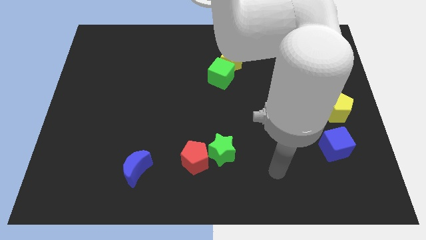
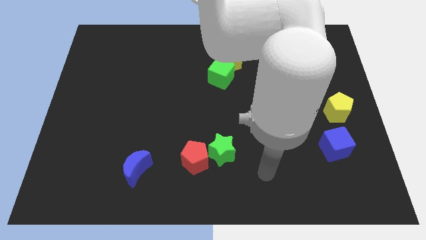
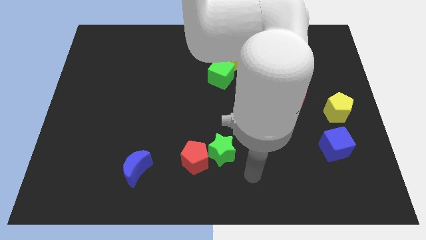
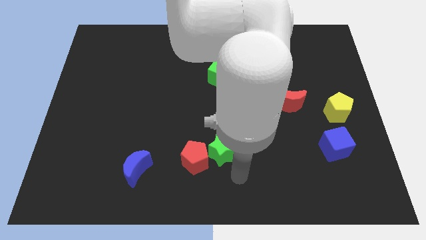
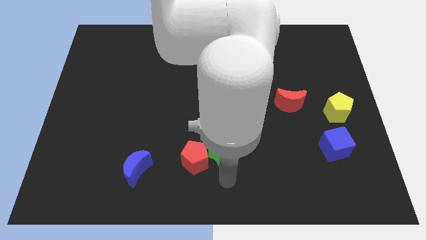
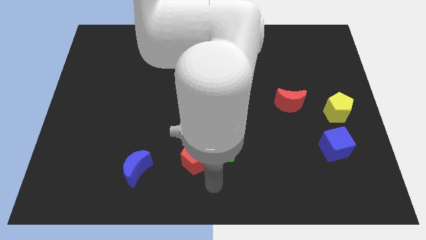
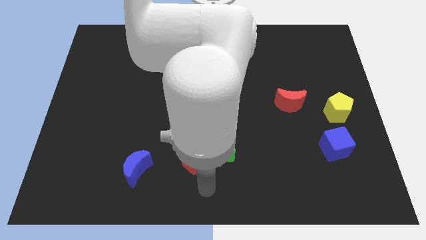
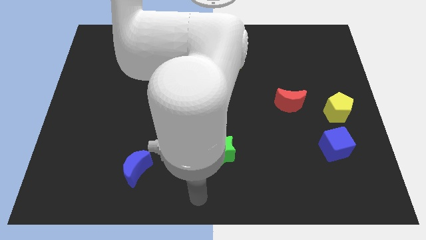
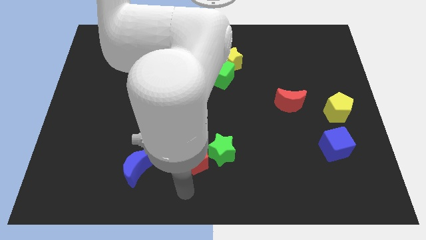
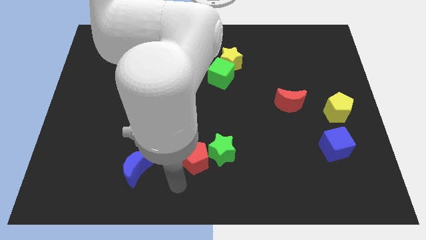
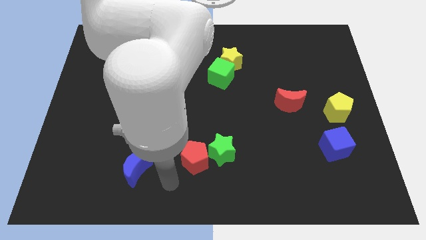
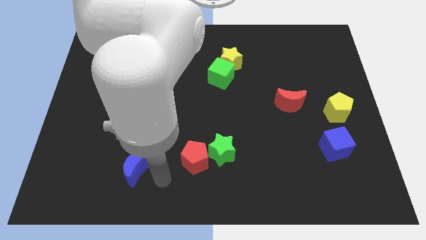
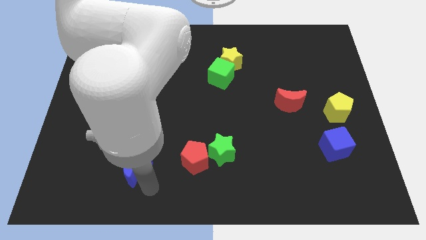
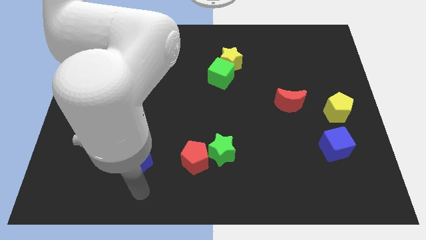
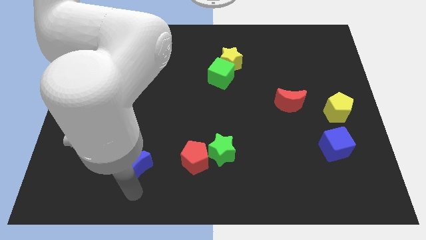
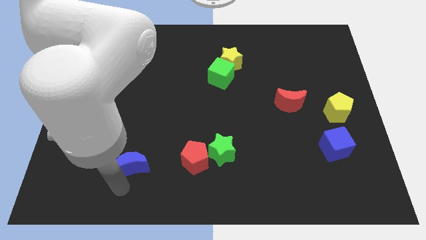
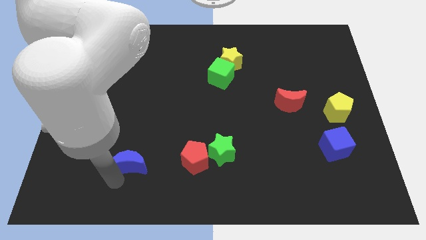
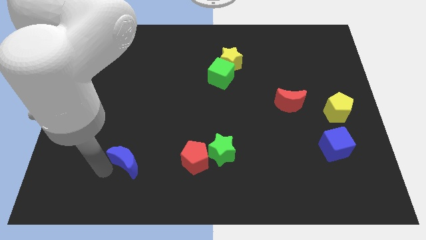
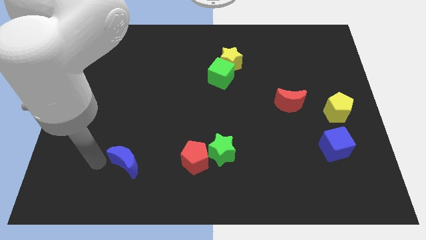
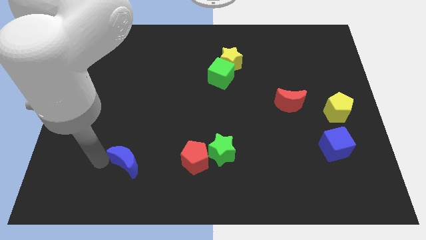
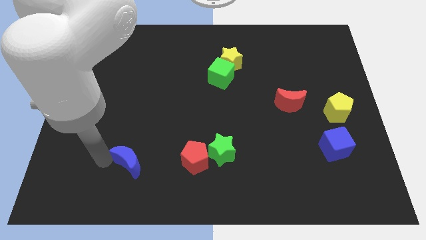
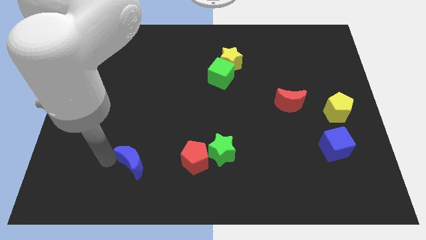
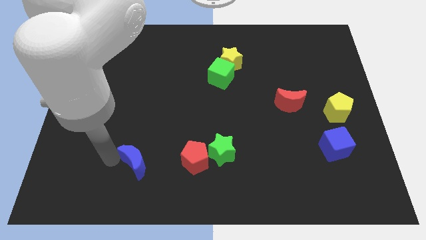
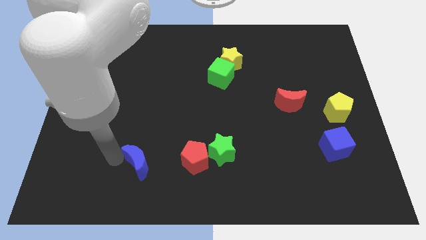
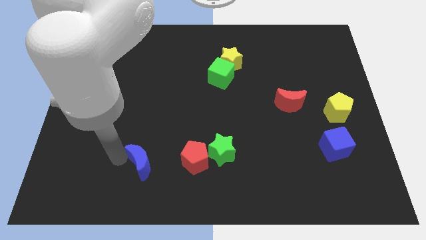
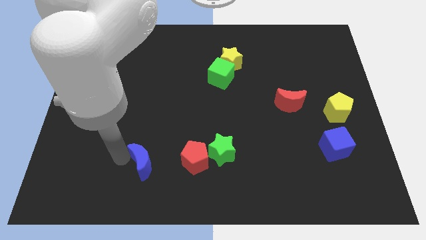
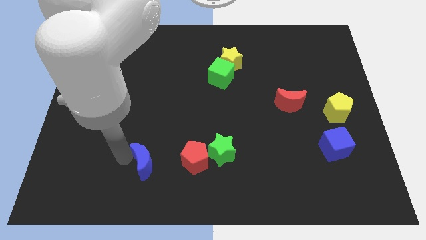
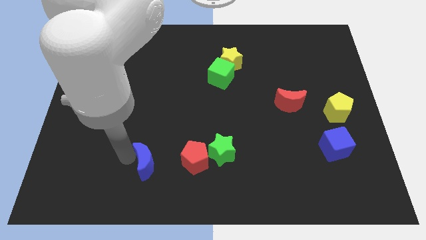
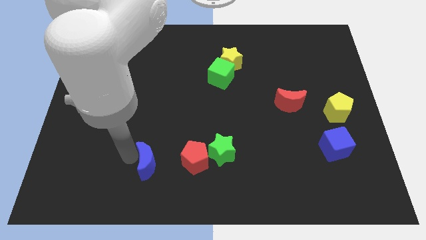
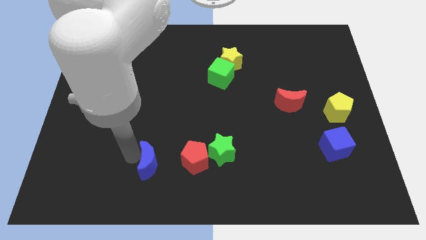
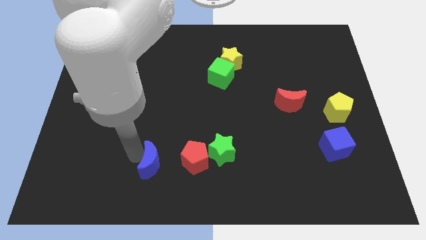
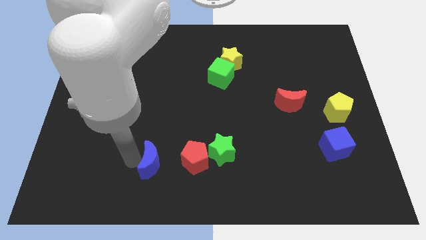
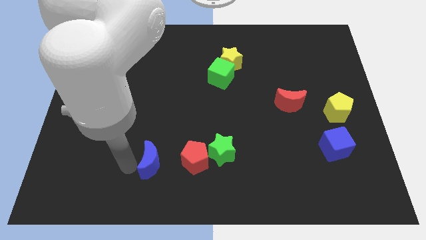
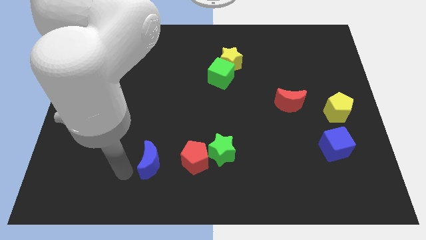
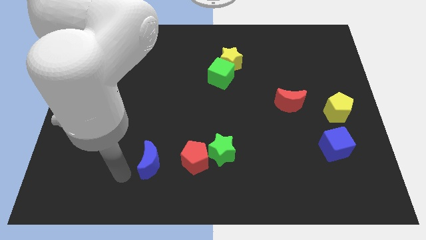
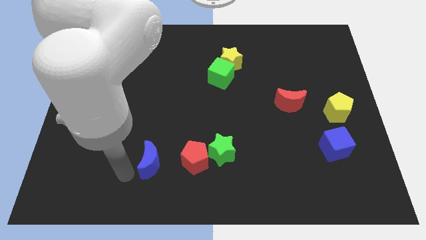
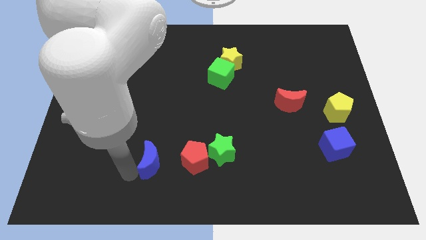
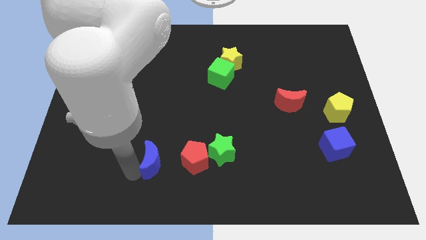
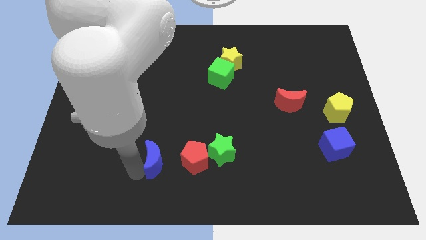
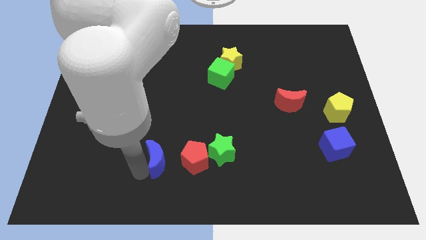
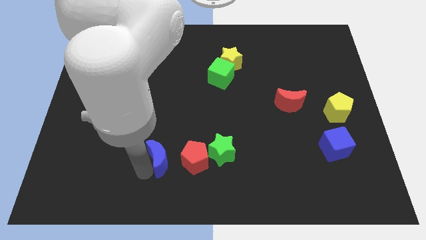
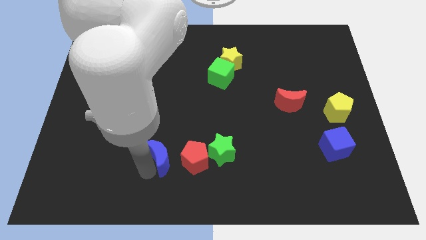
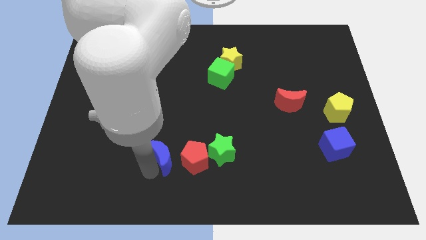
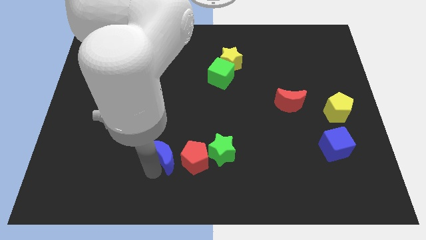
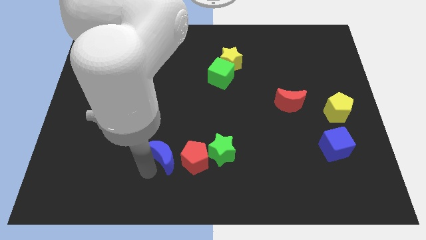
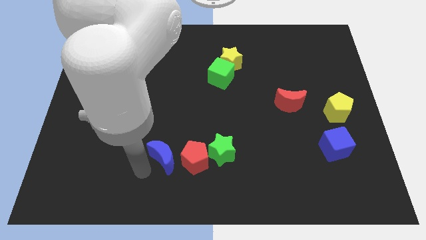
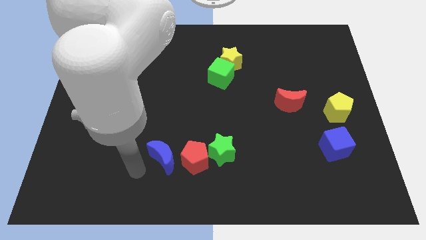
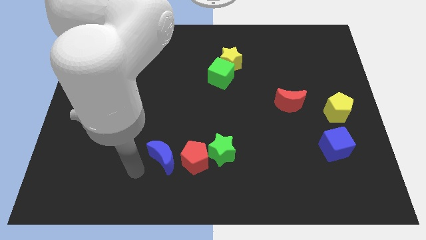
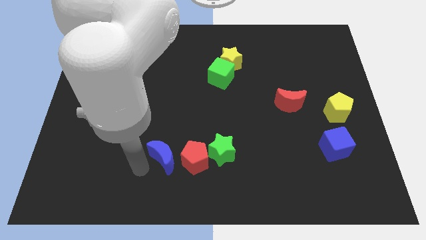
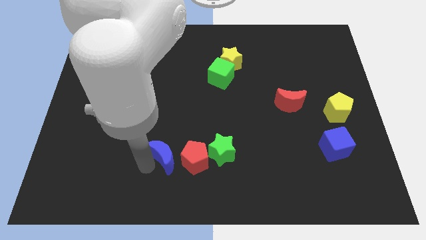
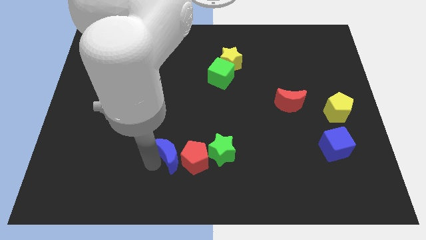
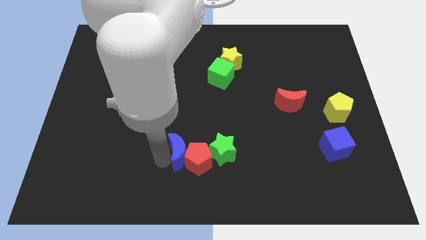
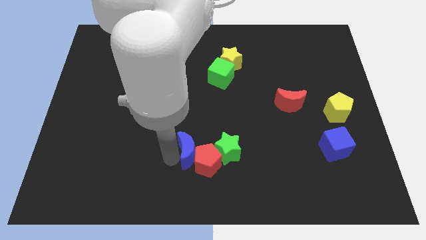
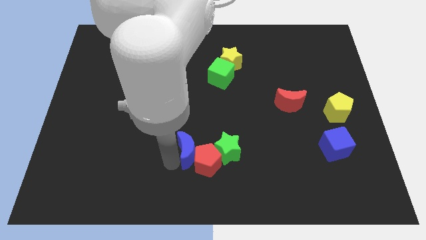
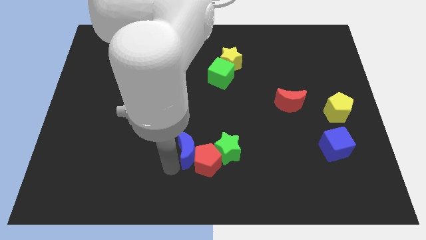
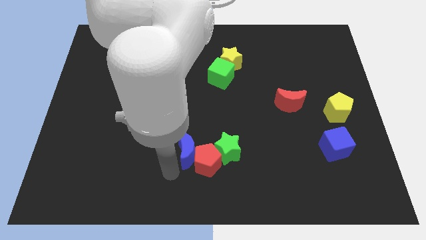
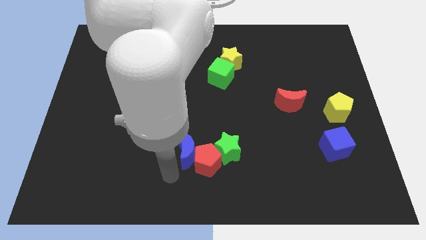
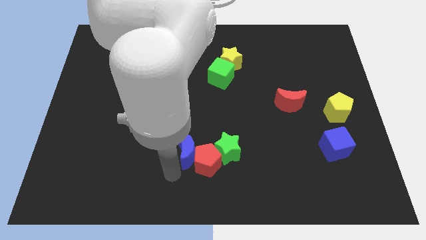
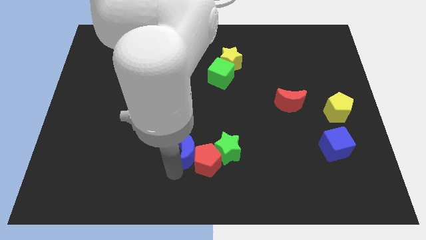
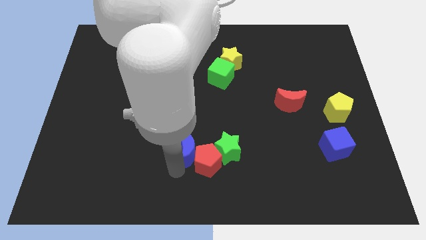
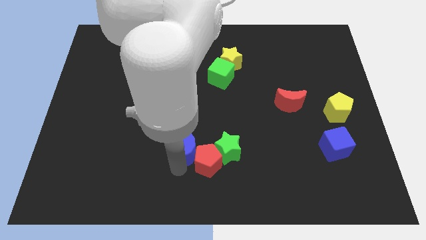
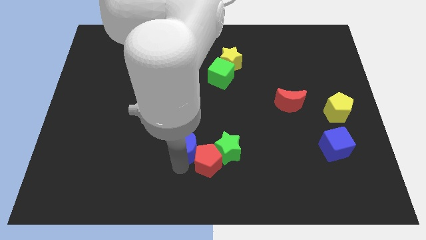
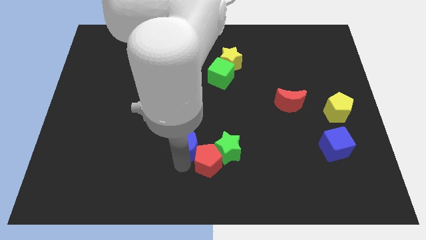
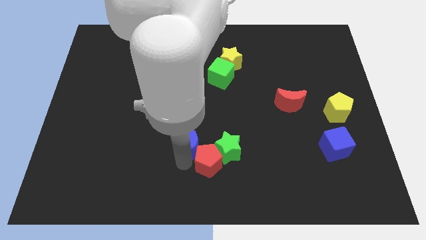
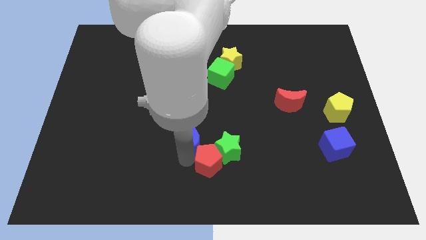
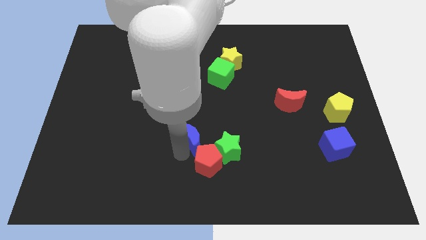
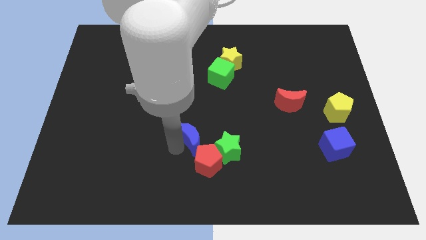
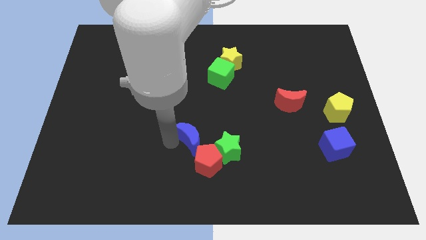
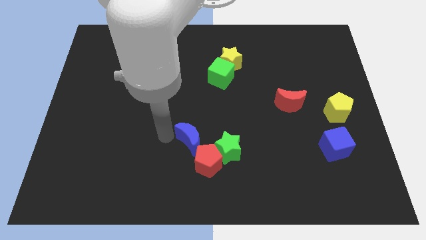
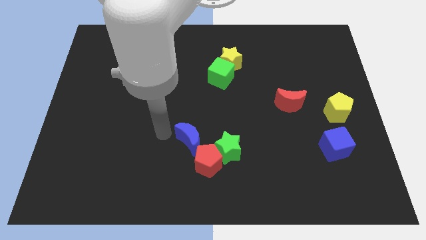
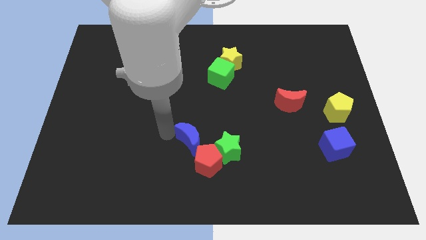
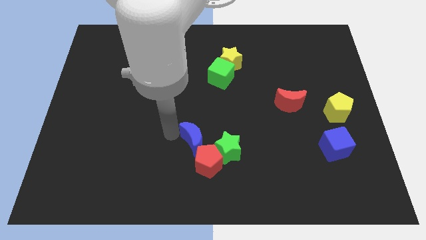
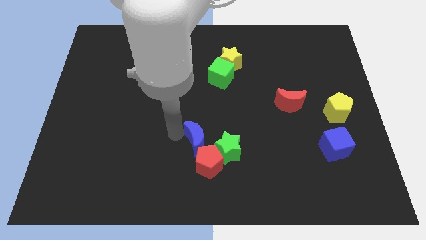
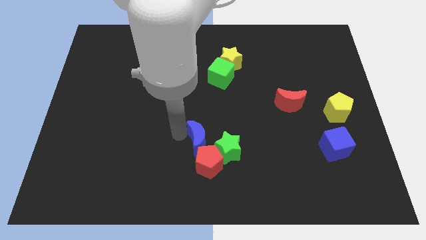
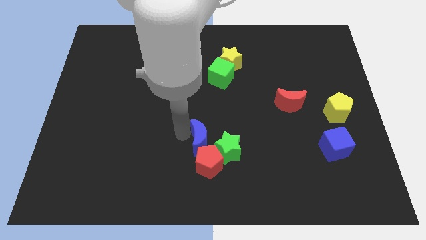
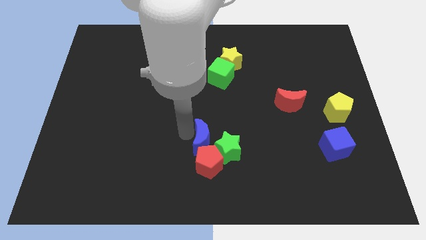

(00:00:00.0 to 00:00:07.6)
slide the blue moon to the green star
